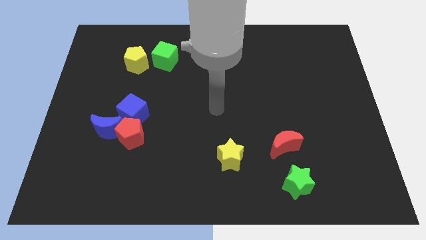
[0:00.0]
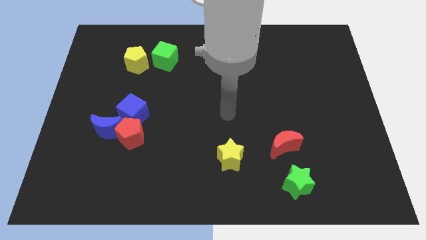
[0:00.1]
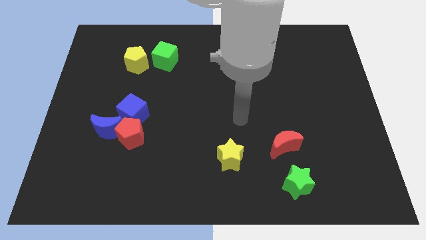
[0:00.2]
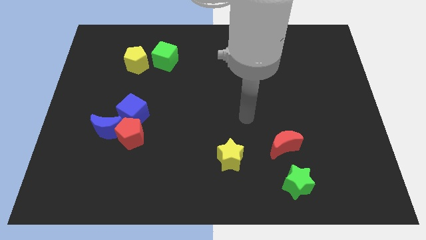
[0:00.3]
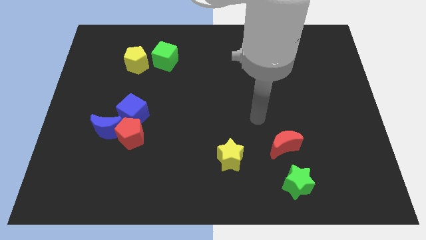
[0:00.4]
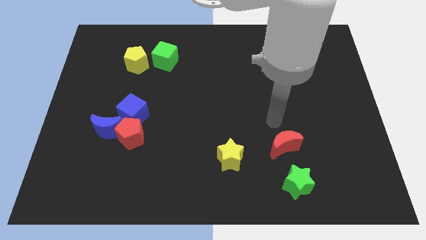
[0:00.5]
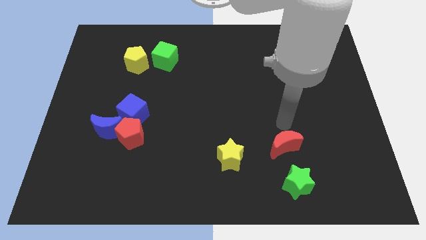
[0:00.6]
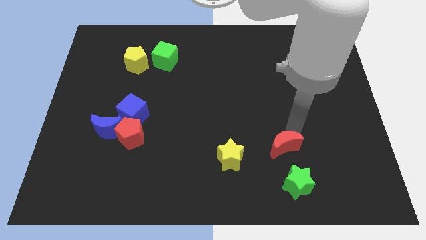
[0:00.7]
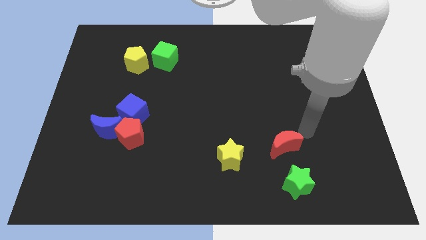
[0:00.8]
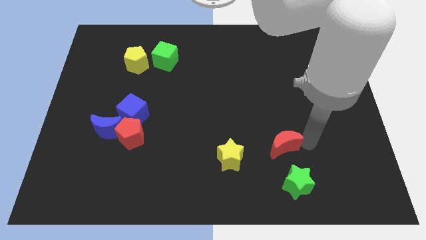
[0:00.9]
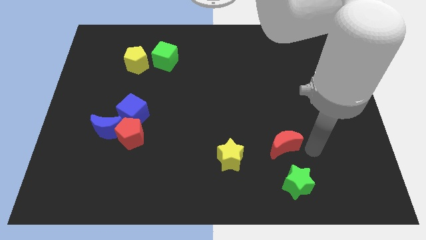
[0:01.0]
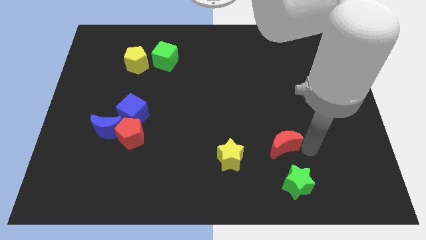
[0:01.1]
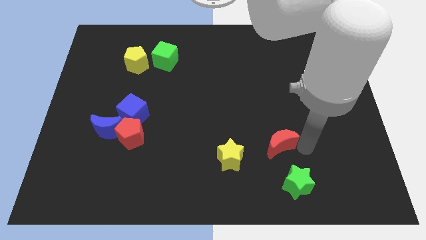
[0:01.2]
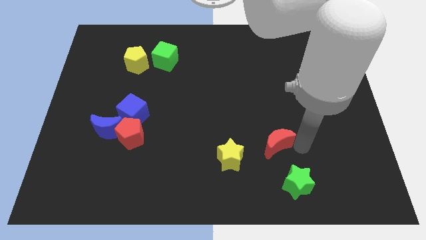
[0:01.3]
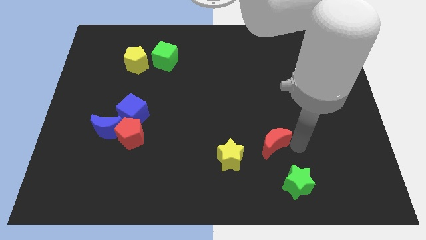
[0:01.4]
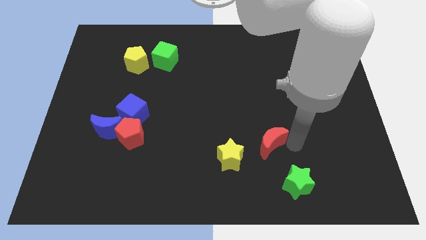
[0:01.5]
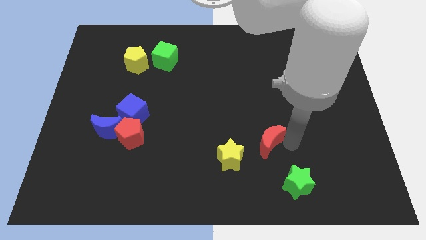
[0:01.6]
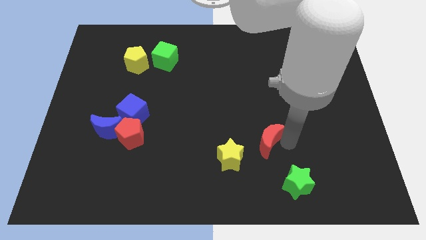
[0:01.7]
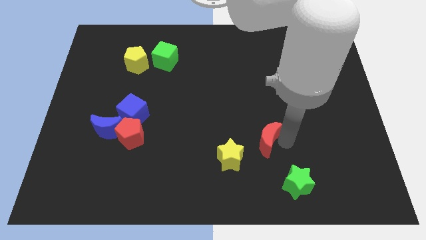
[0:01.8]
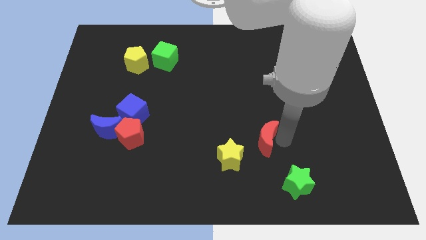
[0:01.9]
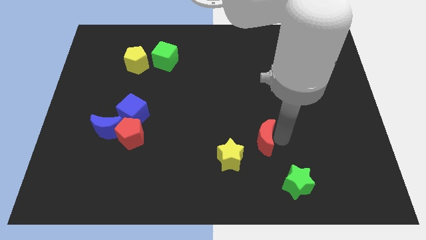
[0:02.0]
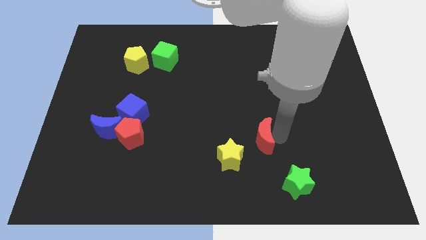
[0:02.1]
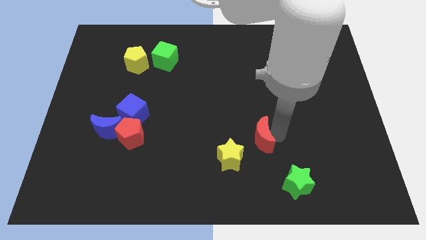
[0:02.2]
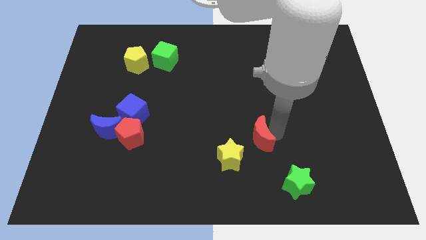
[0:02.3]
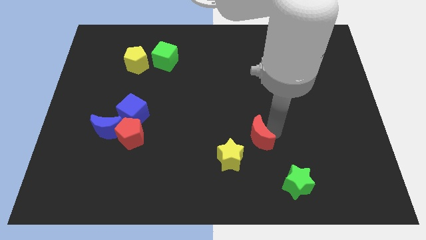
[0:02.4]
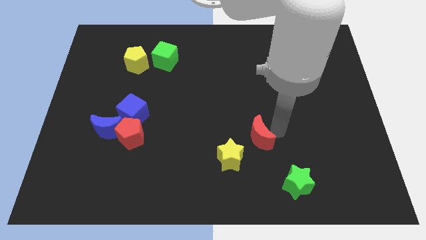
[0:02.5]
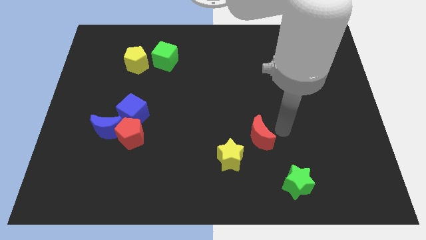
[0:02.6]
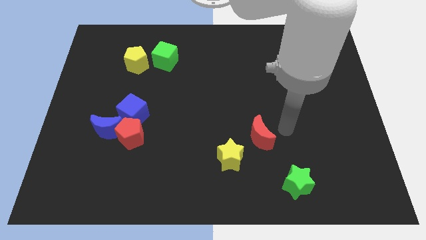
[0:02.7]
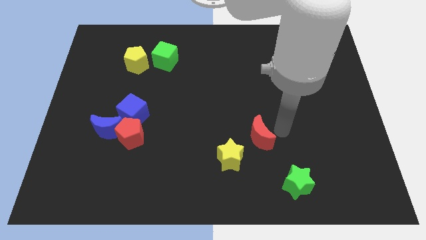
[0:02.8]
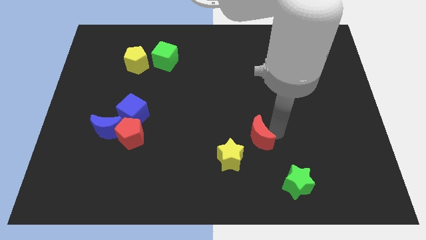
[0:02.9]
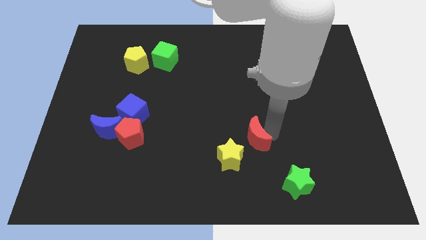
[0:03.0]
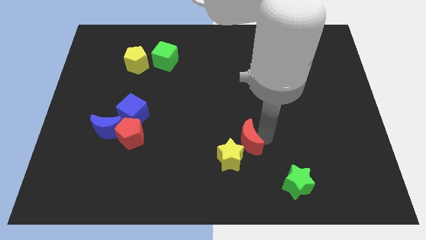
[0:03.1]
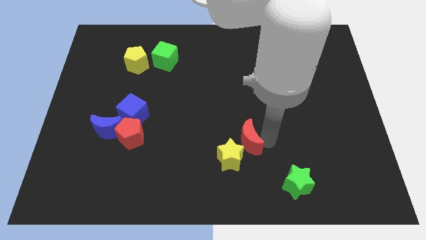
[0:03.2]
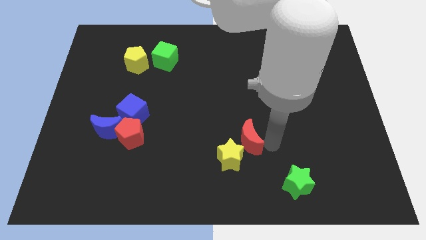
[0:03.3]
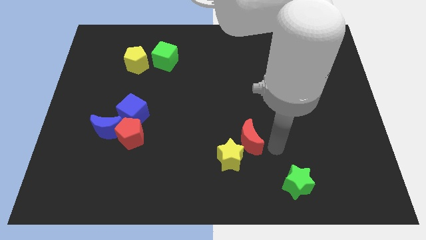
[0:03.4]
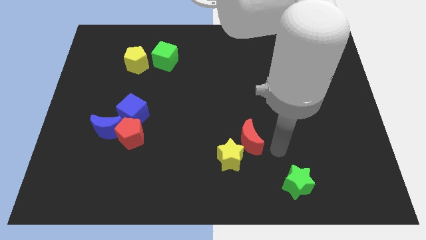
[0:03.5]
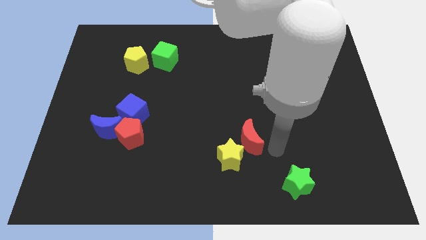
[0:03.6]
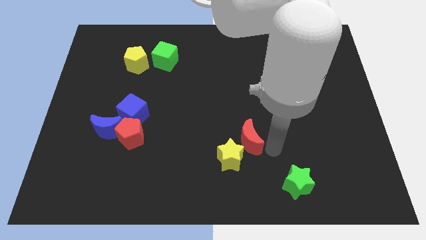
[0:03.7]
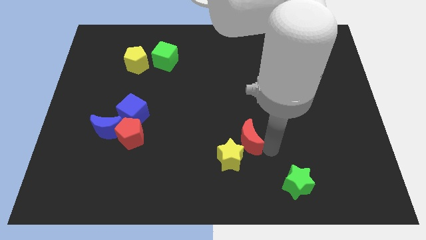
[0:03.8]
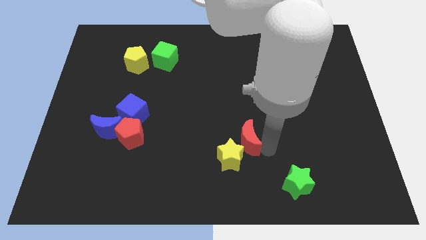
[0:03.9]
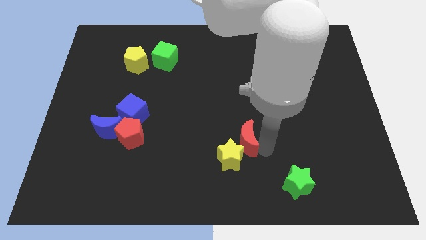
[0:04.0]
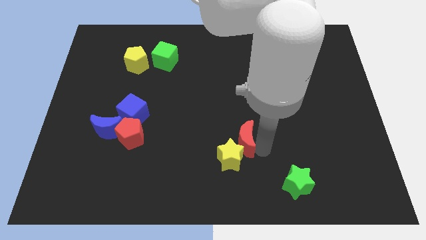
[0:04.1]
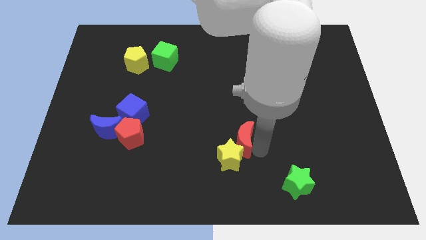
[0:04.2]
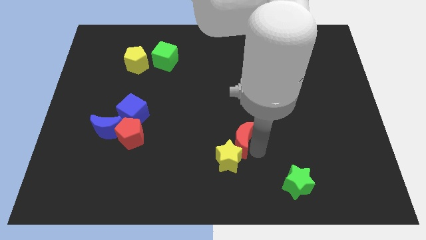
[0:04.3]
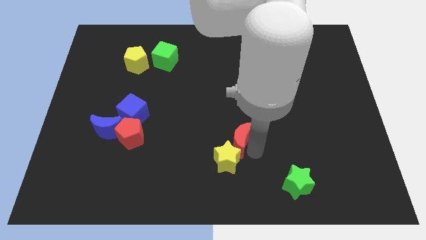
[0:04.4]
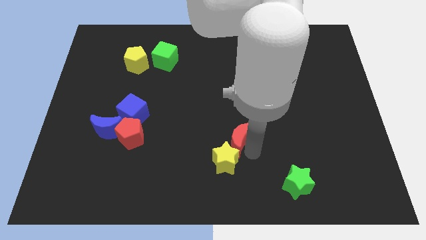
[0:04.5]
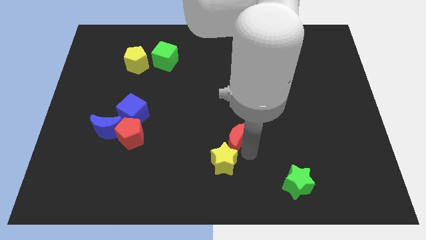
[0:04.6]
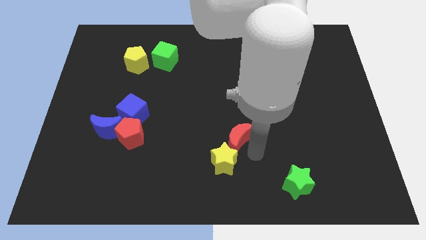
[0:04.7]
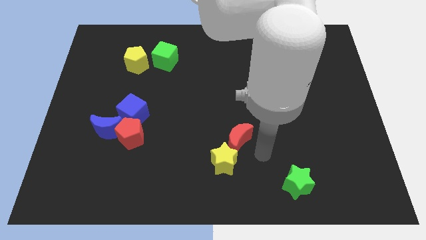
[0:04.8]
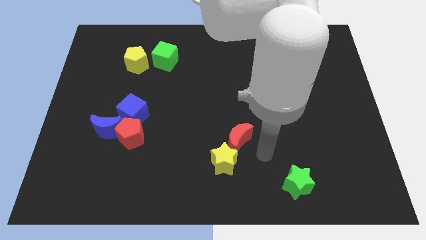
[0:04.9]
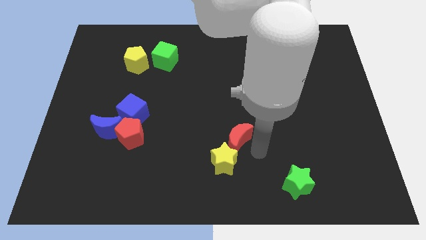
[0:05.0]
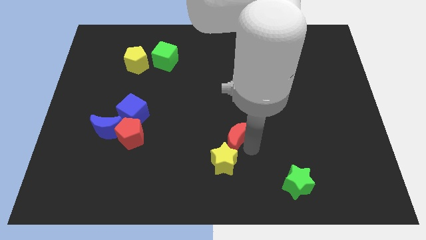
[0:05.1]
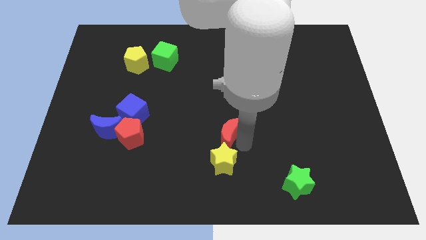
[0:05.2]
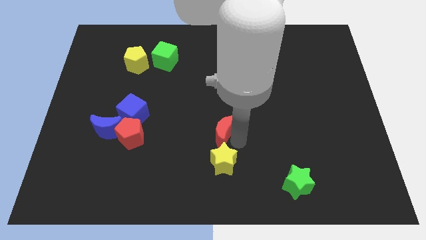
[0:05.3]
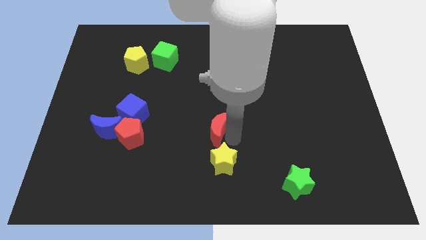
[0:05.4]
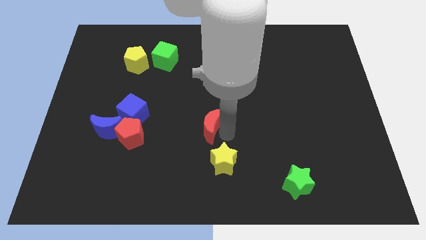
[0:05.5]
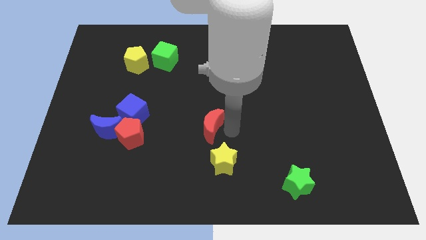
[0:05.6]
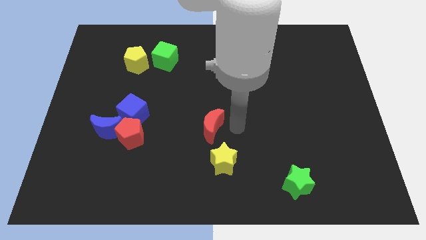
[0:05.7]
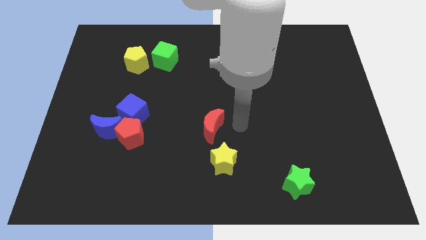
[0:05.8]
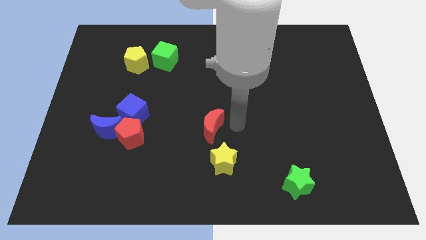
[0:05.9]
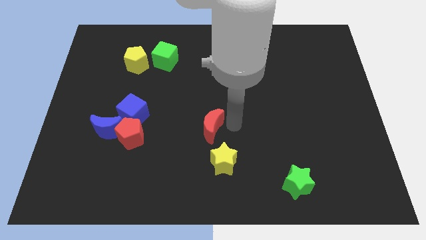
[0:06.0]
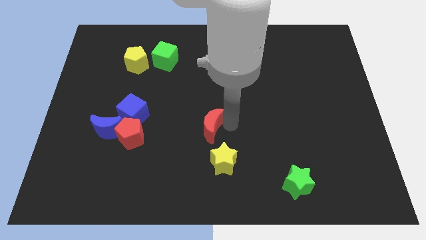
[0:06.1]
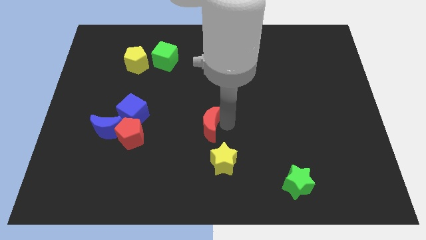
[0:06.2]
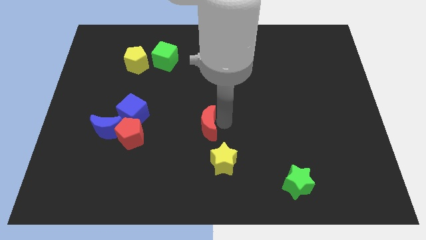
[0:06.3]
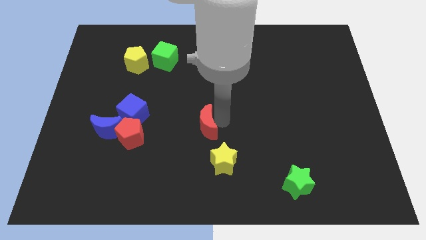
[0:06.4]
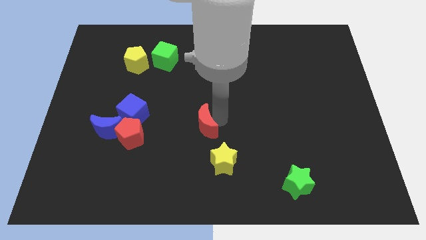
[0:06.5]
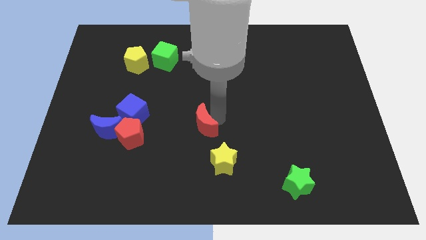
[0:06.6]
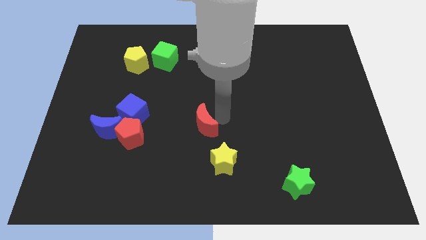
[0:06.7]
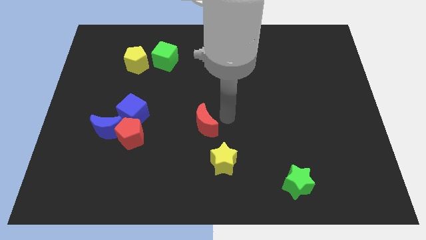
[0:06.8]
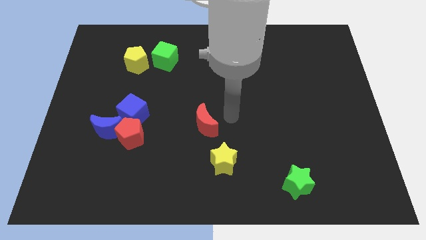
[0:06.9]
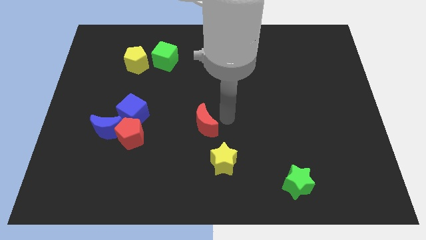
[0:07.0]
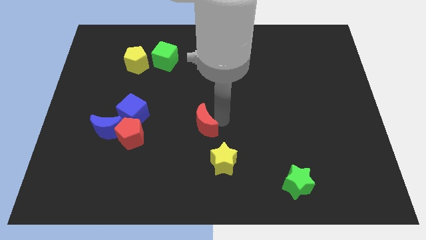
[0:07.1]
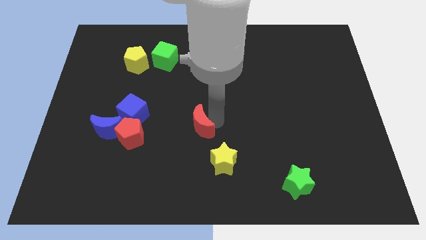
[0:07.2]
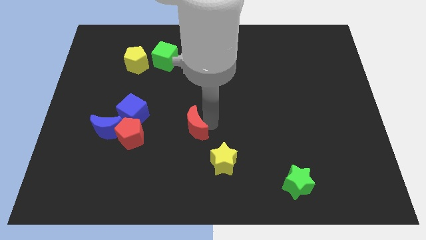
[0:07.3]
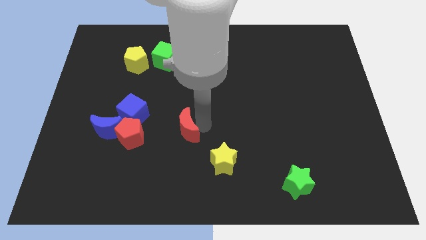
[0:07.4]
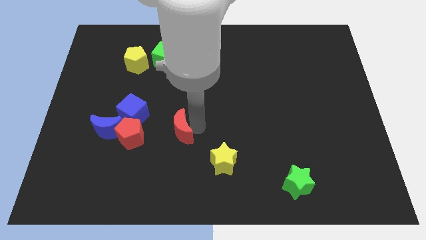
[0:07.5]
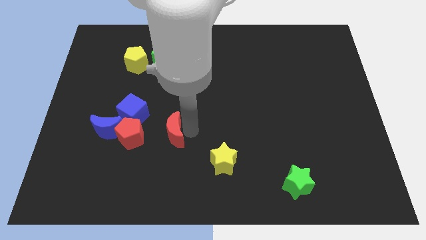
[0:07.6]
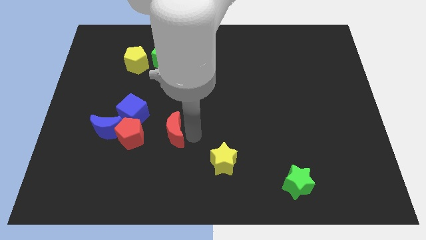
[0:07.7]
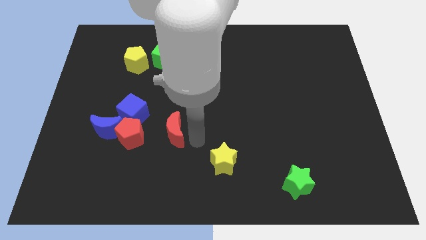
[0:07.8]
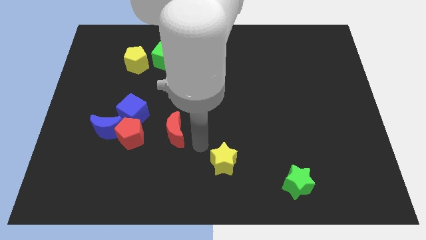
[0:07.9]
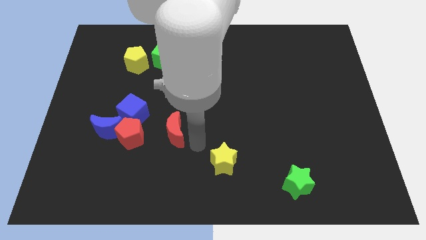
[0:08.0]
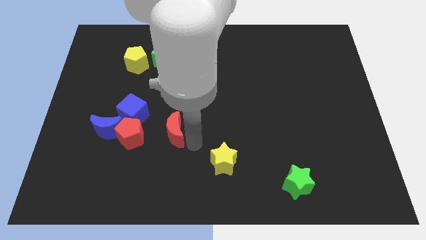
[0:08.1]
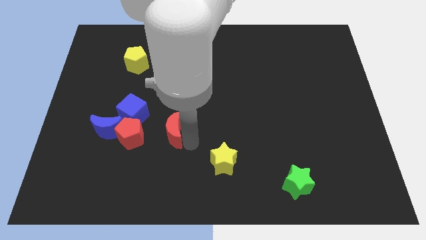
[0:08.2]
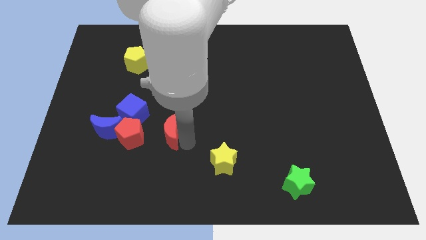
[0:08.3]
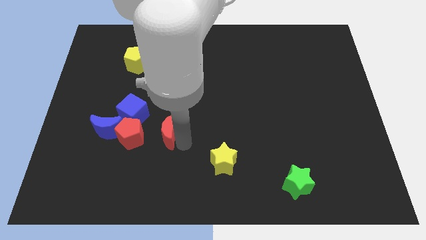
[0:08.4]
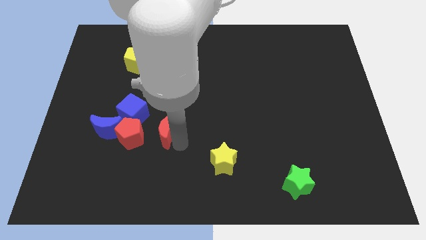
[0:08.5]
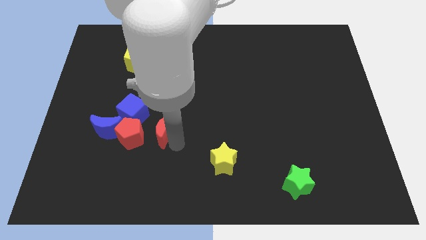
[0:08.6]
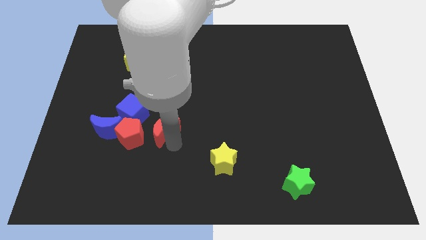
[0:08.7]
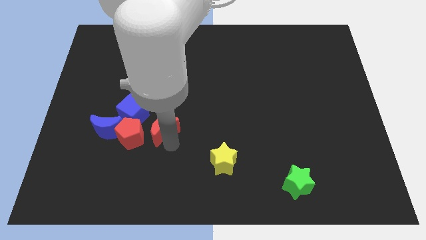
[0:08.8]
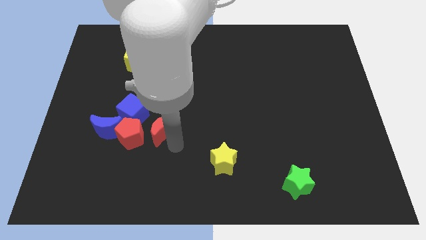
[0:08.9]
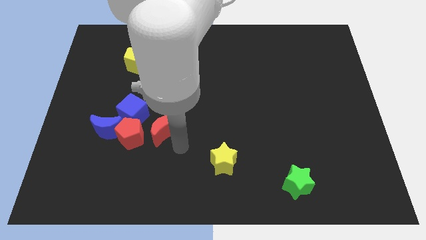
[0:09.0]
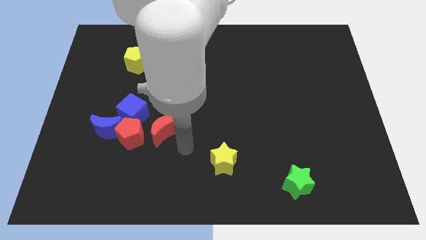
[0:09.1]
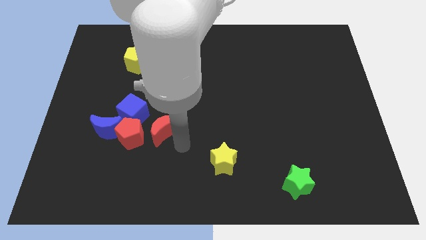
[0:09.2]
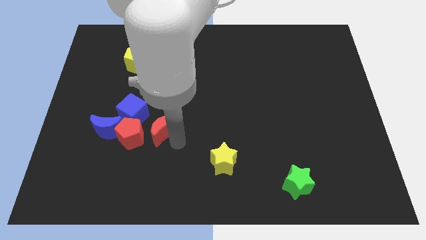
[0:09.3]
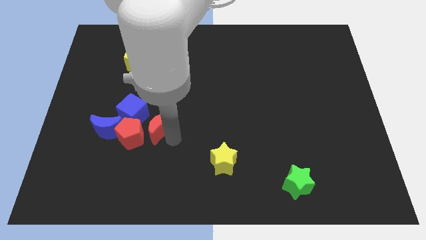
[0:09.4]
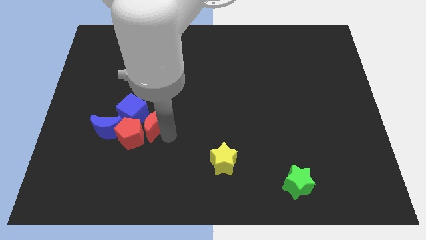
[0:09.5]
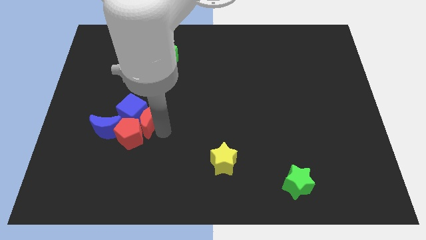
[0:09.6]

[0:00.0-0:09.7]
push the red moon close to the blue cube
